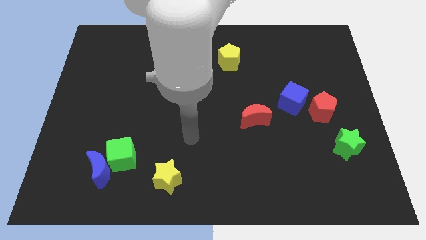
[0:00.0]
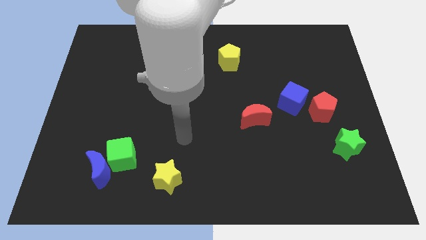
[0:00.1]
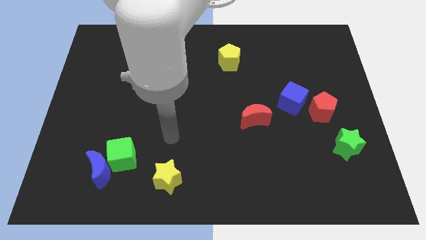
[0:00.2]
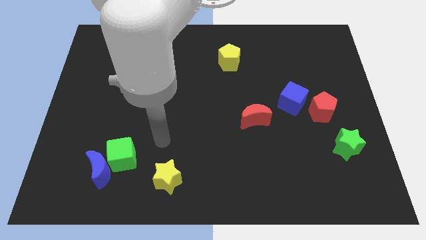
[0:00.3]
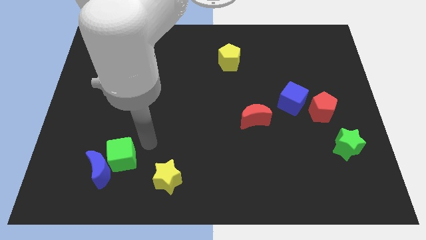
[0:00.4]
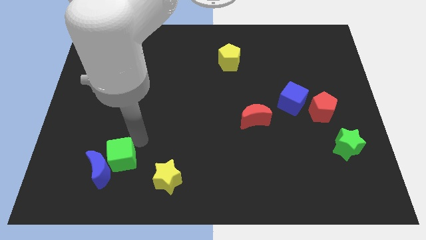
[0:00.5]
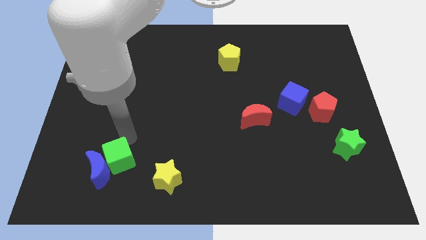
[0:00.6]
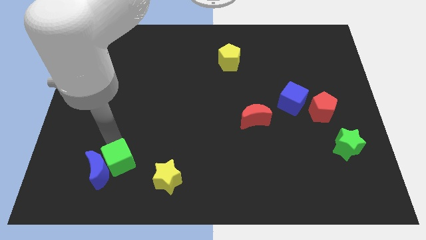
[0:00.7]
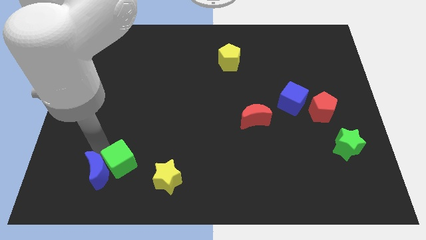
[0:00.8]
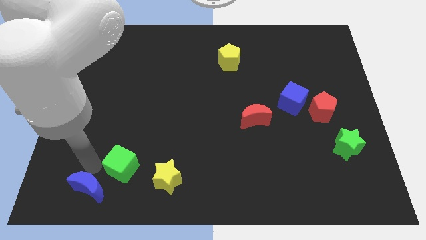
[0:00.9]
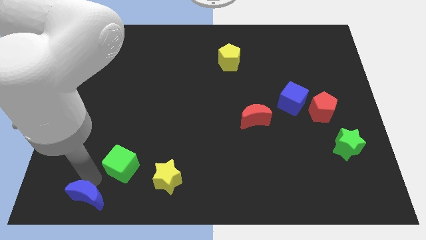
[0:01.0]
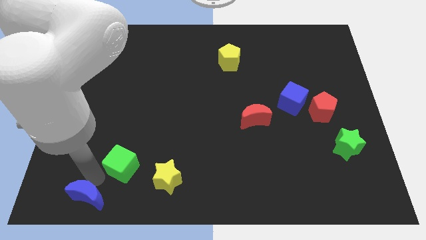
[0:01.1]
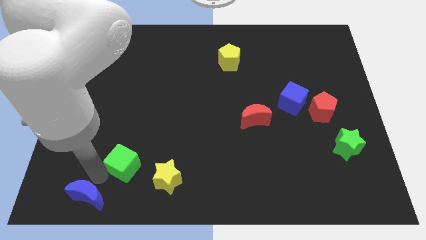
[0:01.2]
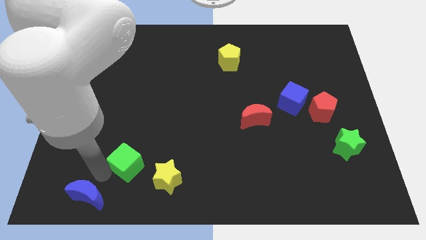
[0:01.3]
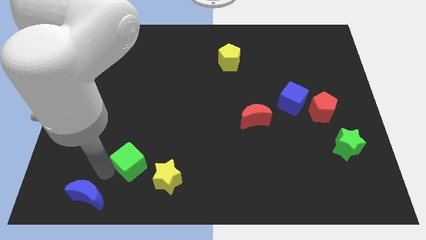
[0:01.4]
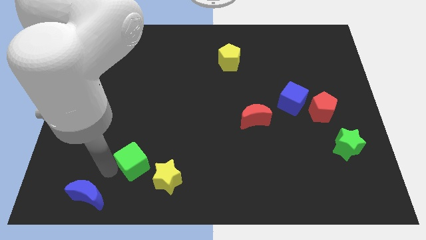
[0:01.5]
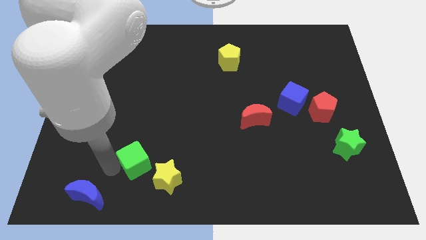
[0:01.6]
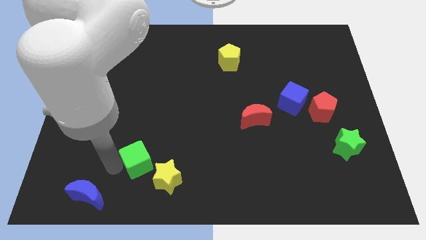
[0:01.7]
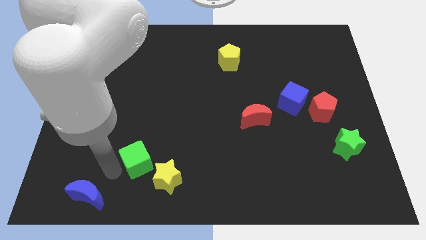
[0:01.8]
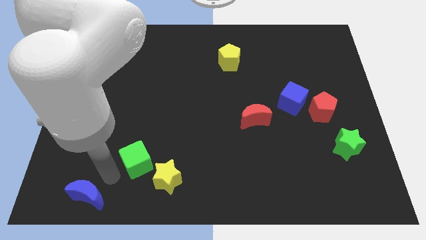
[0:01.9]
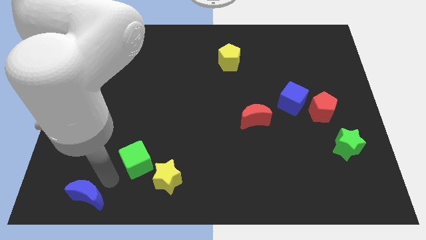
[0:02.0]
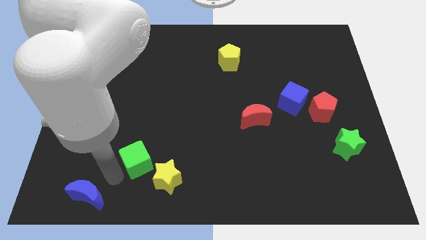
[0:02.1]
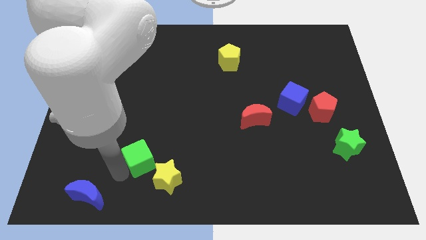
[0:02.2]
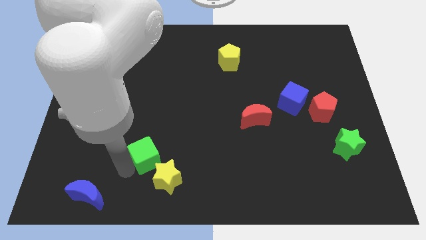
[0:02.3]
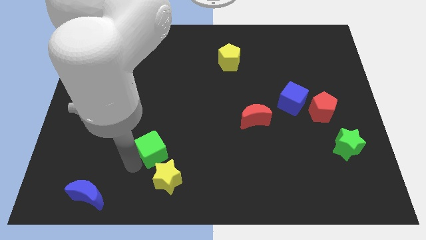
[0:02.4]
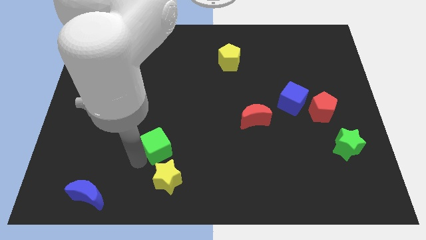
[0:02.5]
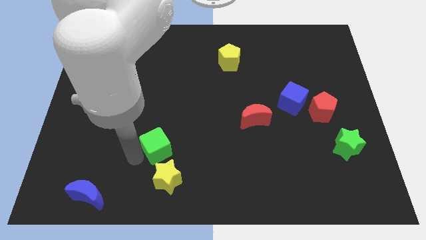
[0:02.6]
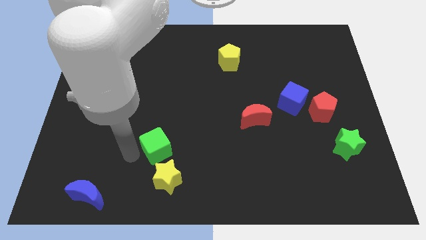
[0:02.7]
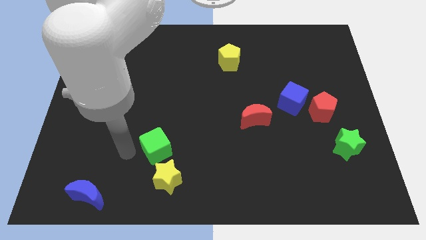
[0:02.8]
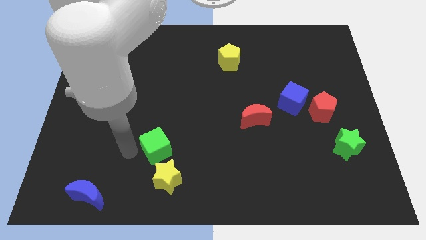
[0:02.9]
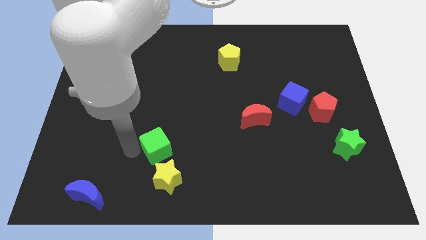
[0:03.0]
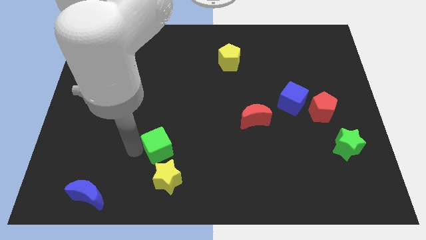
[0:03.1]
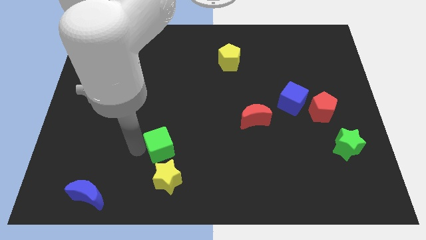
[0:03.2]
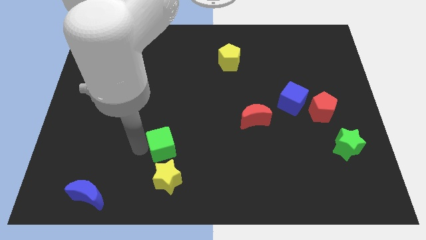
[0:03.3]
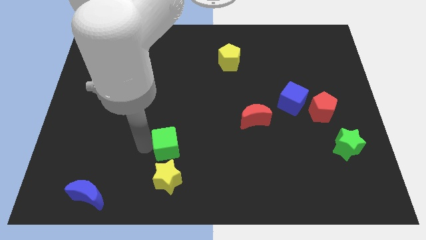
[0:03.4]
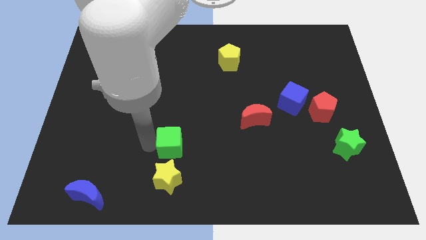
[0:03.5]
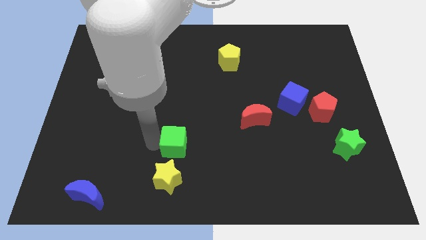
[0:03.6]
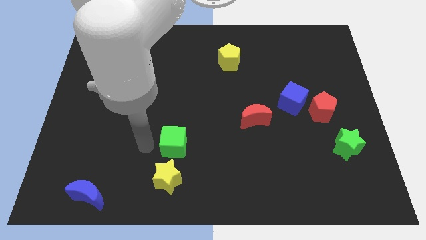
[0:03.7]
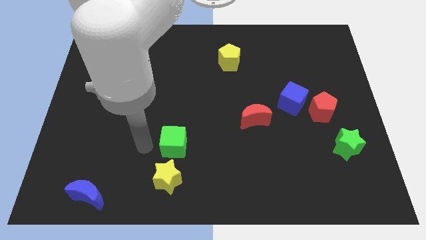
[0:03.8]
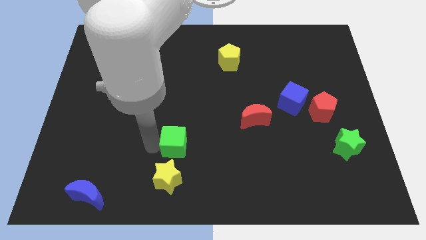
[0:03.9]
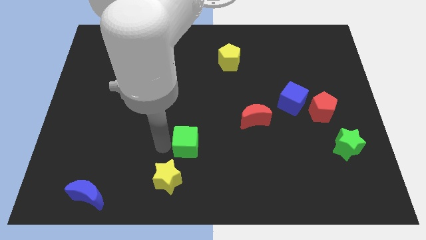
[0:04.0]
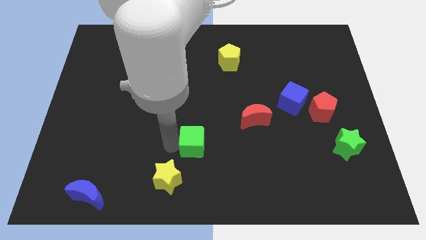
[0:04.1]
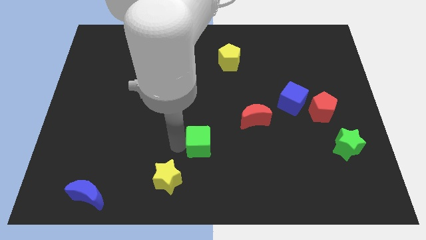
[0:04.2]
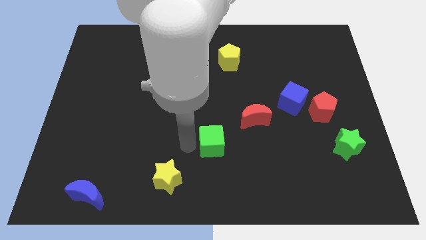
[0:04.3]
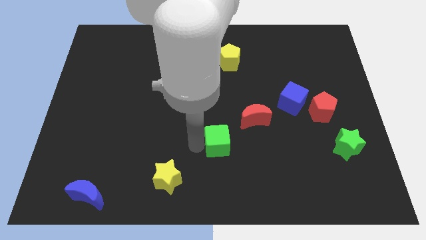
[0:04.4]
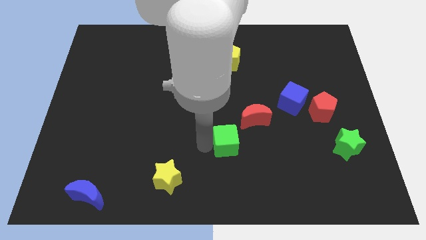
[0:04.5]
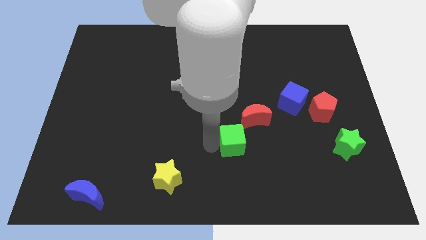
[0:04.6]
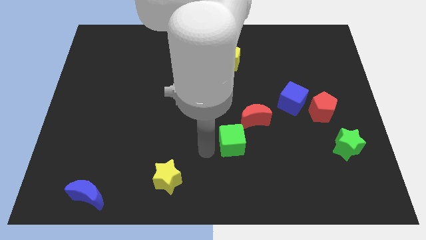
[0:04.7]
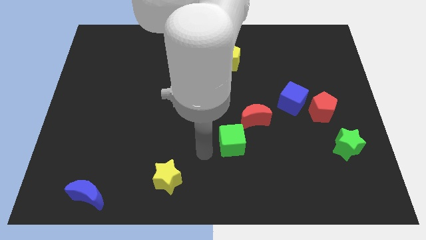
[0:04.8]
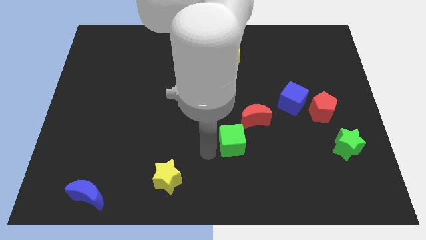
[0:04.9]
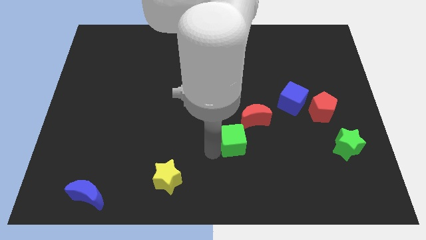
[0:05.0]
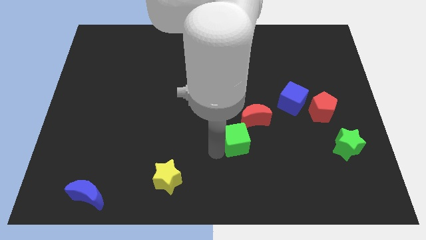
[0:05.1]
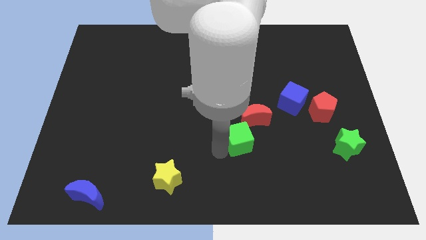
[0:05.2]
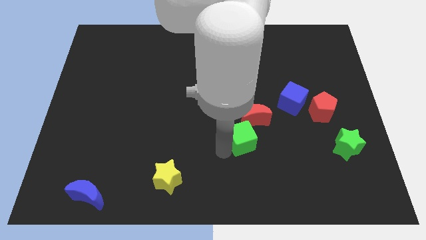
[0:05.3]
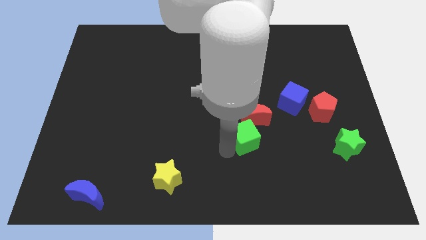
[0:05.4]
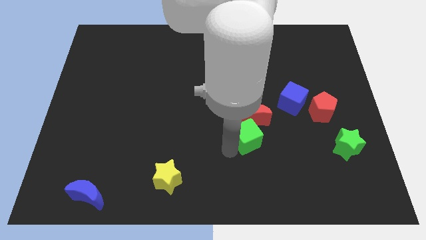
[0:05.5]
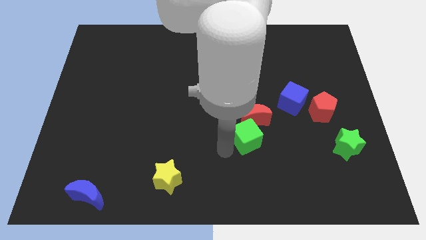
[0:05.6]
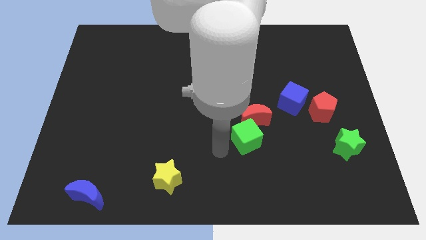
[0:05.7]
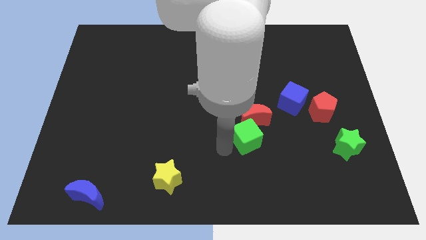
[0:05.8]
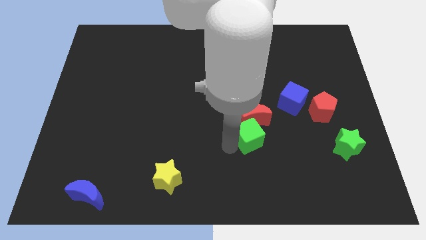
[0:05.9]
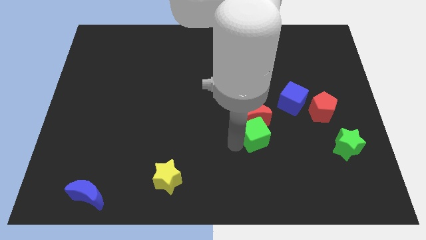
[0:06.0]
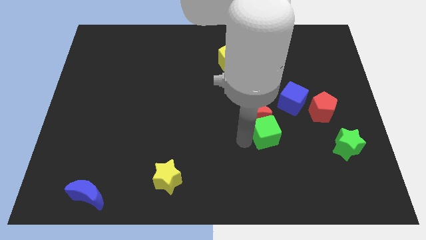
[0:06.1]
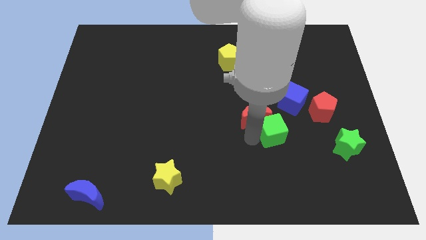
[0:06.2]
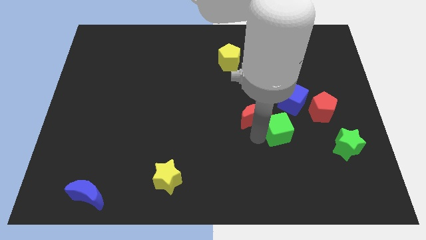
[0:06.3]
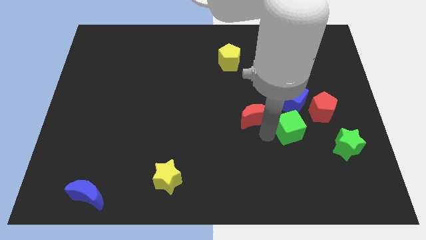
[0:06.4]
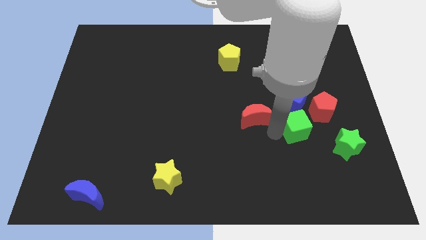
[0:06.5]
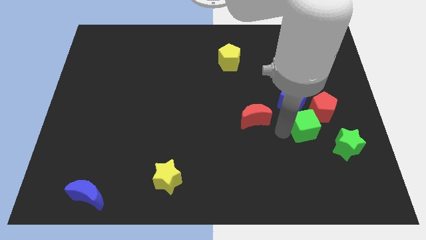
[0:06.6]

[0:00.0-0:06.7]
push the green cube to the top left of the green star

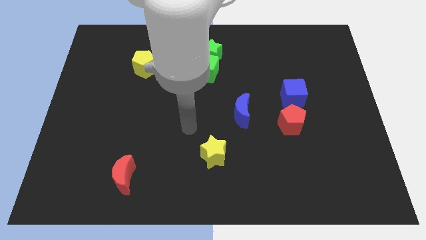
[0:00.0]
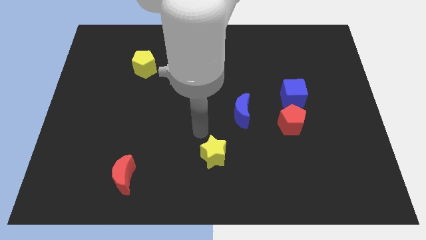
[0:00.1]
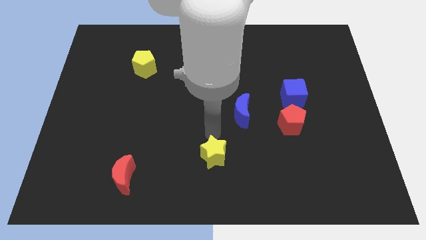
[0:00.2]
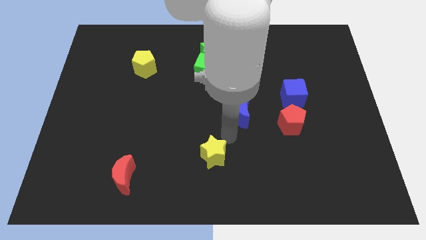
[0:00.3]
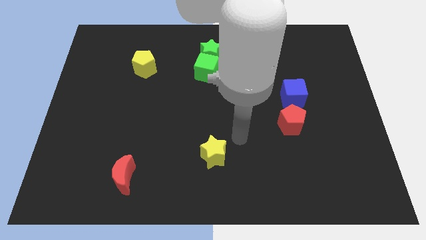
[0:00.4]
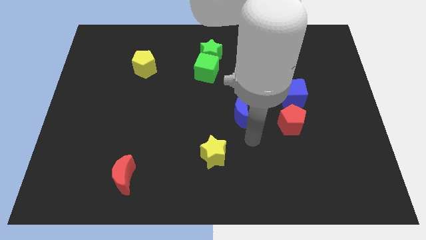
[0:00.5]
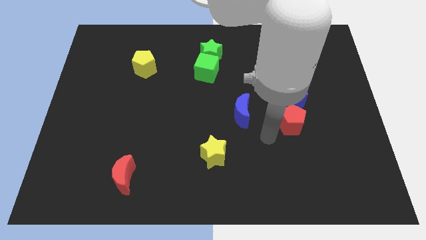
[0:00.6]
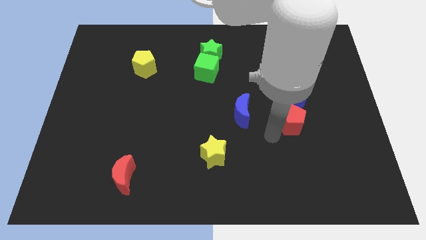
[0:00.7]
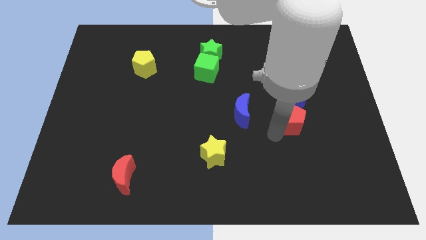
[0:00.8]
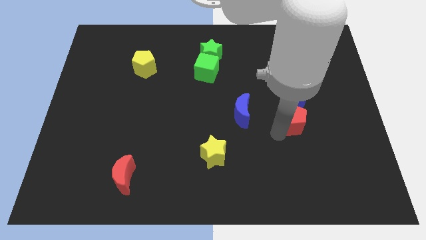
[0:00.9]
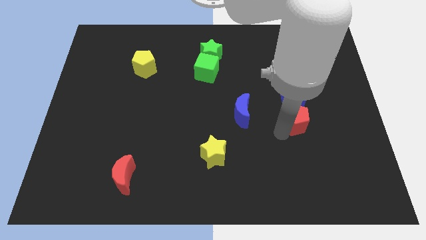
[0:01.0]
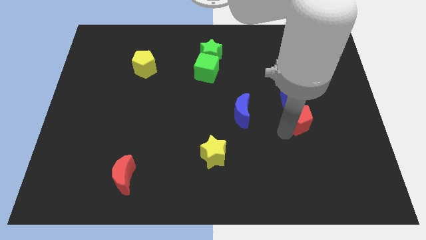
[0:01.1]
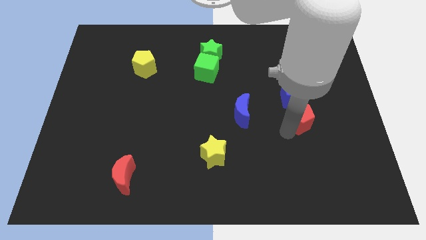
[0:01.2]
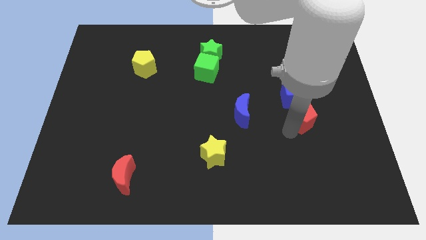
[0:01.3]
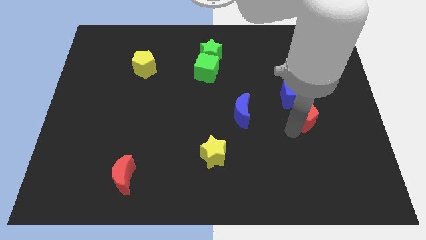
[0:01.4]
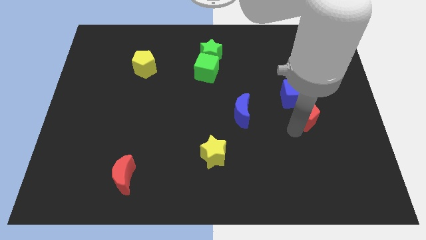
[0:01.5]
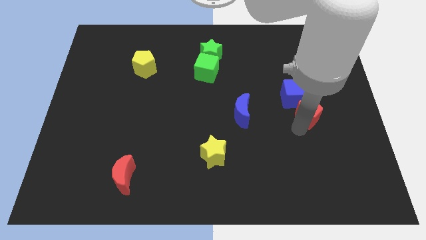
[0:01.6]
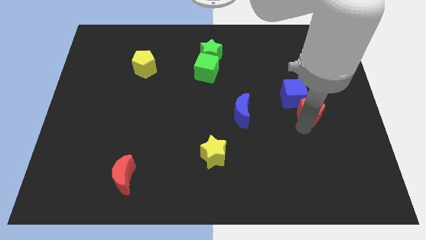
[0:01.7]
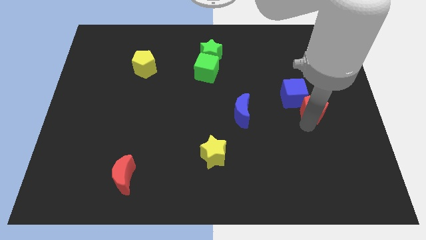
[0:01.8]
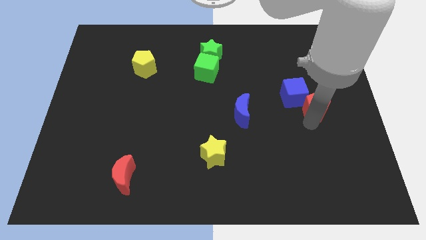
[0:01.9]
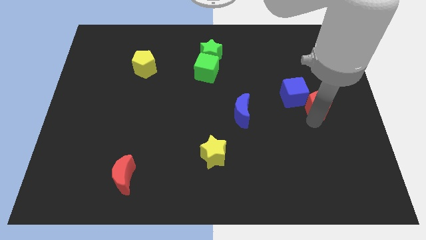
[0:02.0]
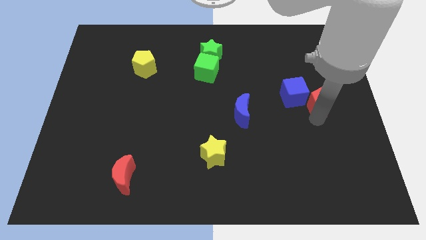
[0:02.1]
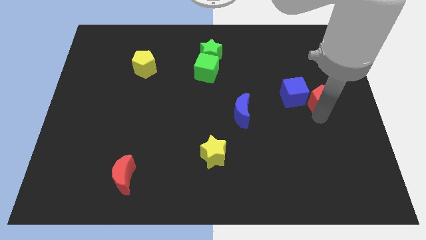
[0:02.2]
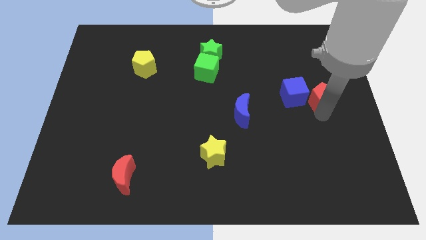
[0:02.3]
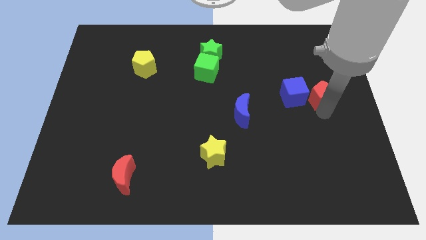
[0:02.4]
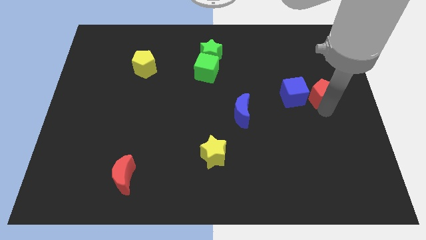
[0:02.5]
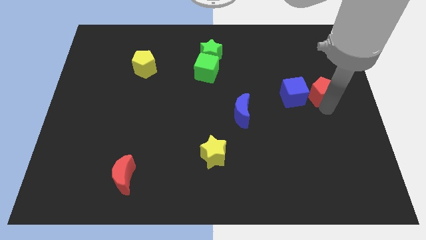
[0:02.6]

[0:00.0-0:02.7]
slide the red pentagon to the top right of the blue cube
